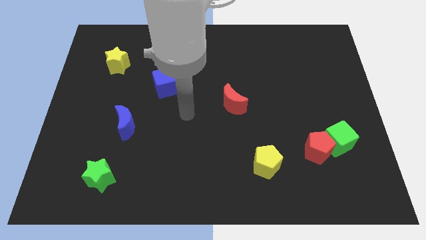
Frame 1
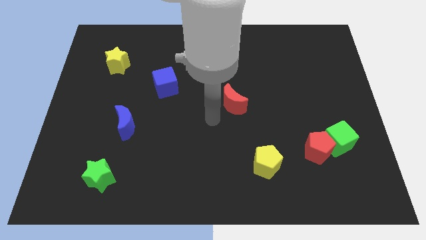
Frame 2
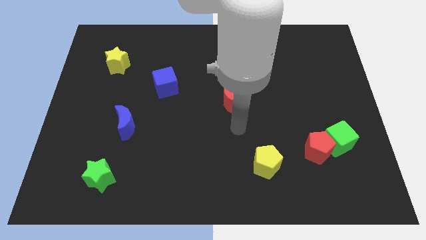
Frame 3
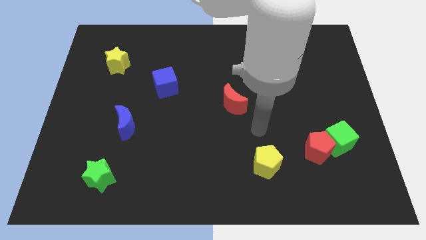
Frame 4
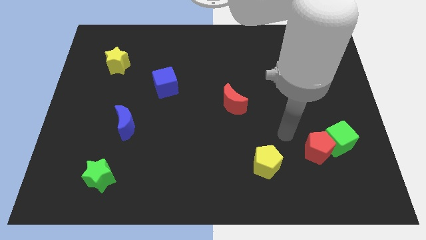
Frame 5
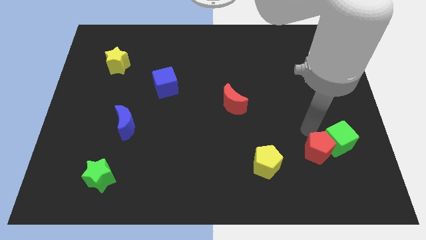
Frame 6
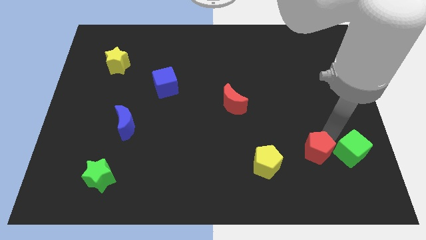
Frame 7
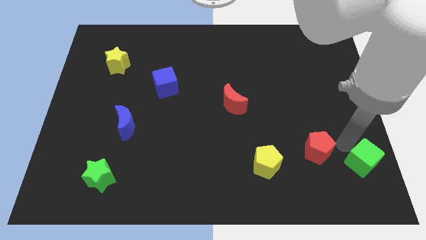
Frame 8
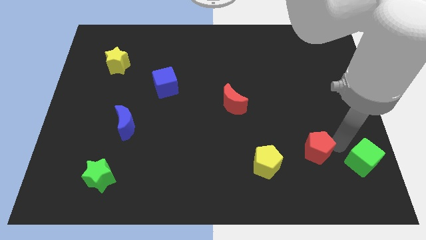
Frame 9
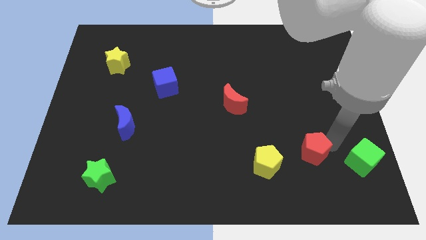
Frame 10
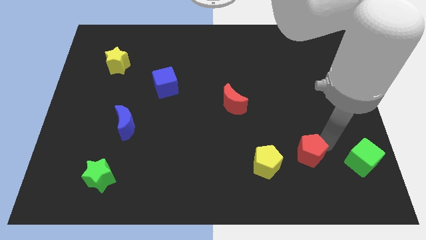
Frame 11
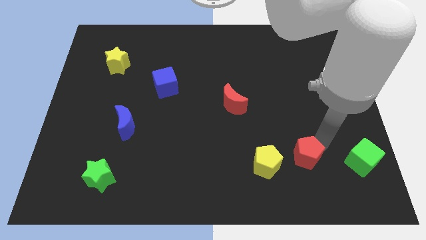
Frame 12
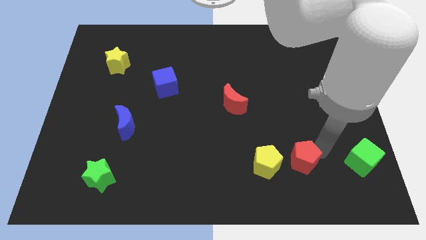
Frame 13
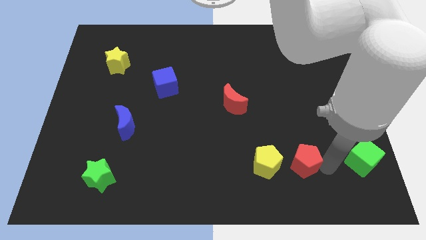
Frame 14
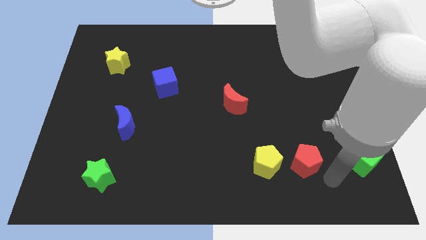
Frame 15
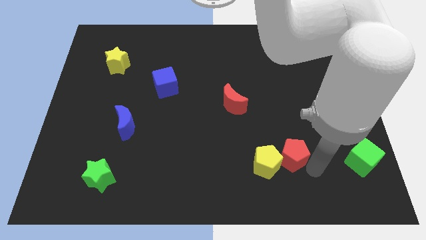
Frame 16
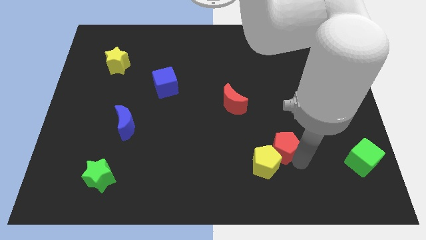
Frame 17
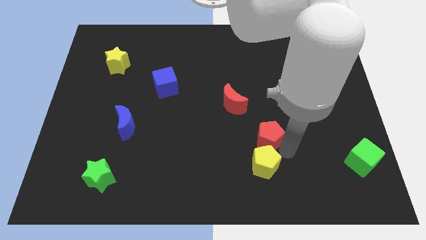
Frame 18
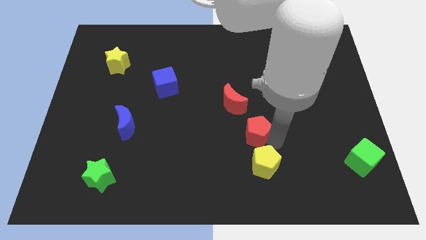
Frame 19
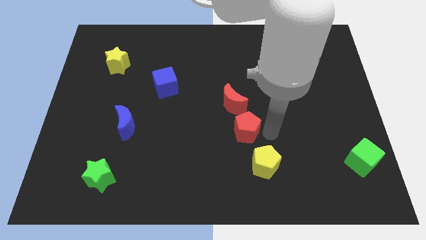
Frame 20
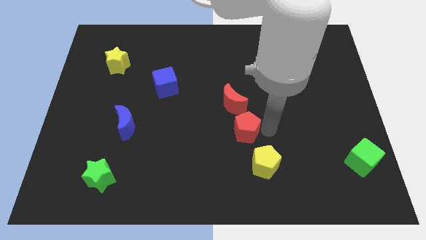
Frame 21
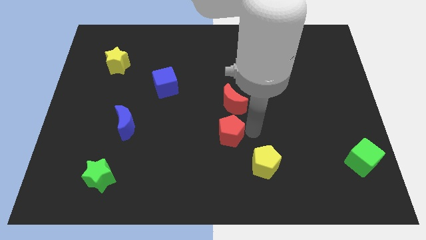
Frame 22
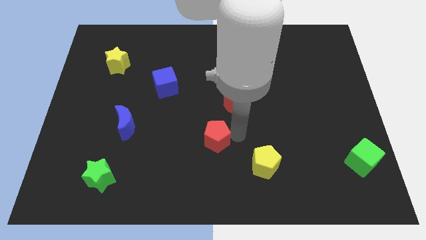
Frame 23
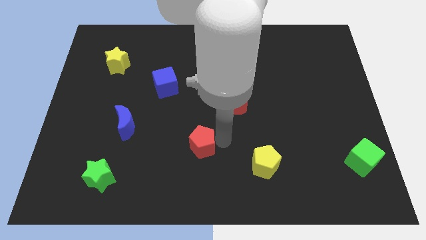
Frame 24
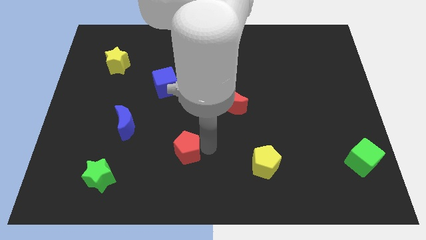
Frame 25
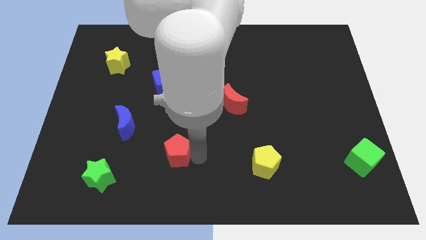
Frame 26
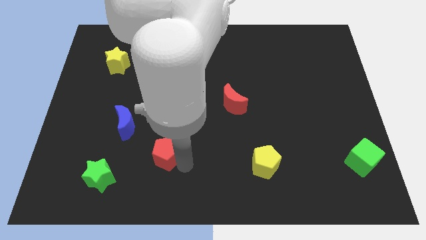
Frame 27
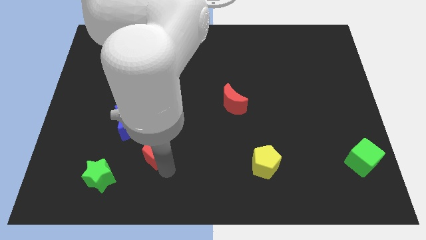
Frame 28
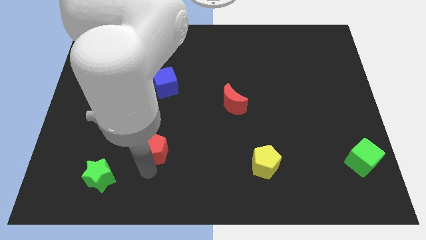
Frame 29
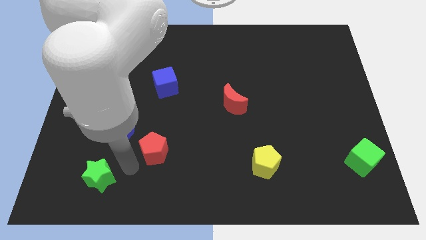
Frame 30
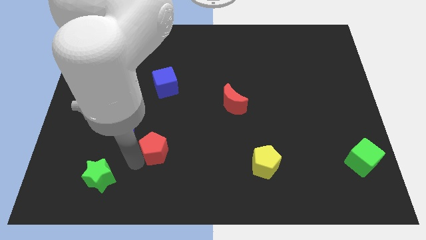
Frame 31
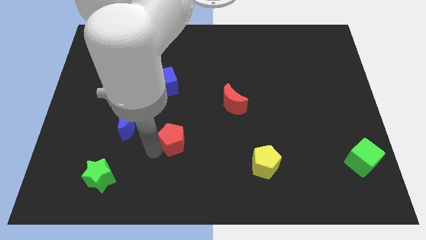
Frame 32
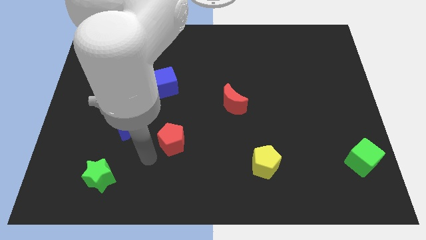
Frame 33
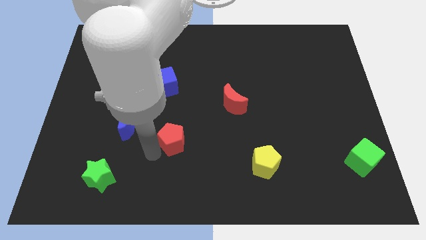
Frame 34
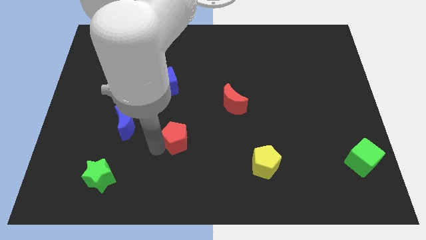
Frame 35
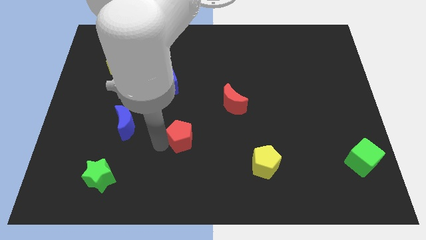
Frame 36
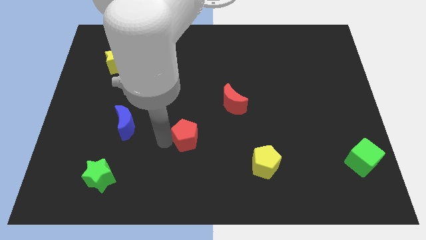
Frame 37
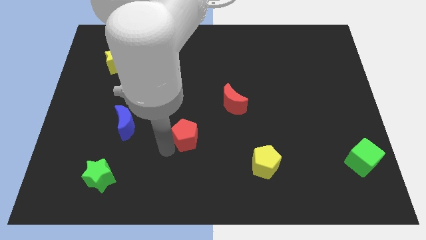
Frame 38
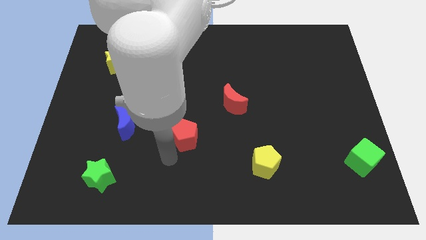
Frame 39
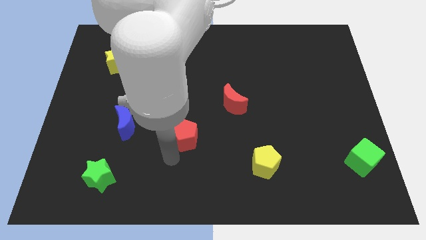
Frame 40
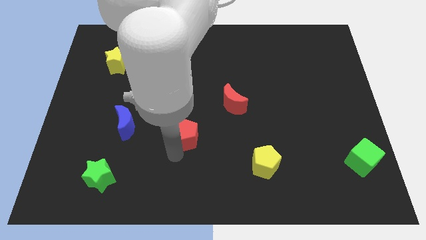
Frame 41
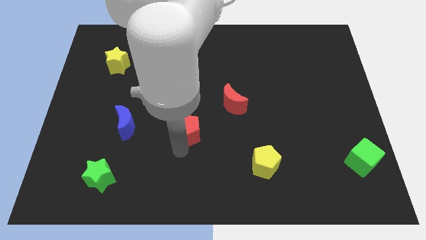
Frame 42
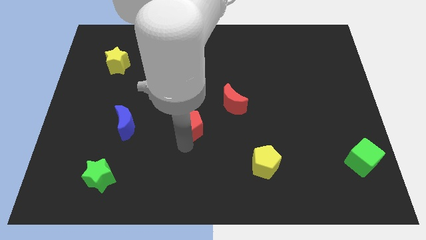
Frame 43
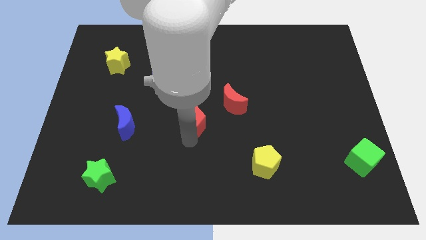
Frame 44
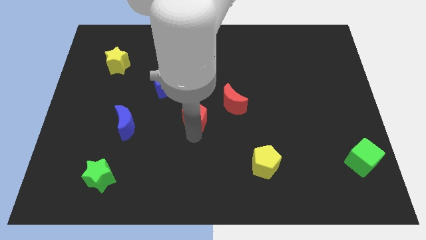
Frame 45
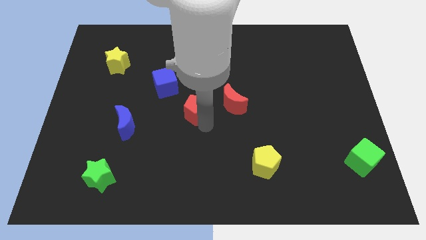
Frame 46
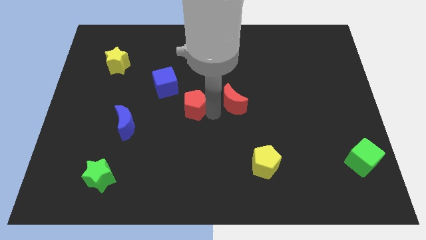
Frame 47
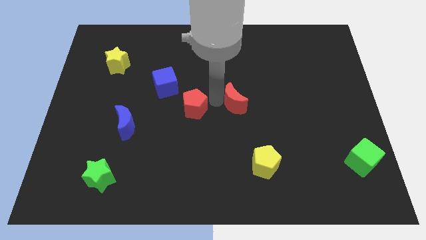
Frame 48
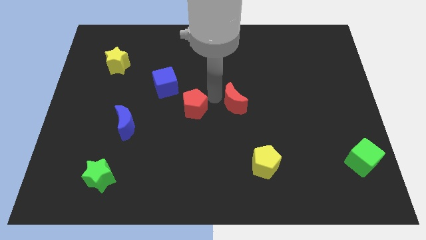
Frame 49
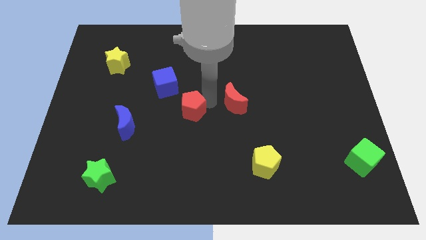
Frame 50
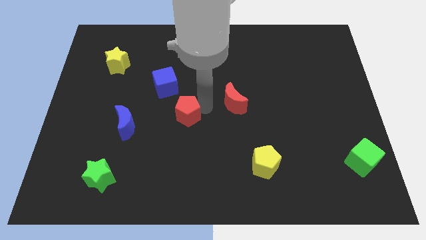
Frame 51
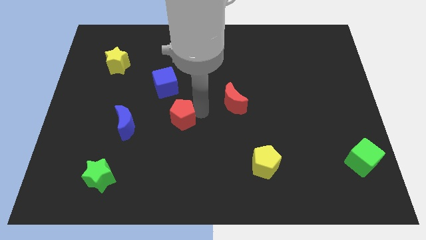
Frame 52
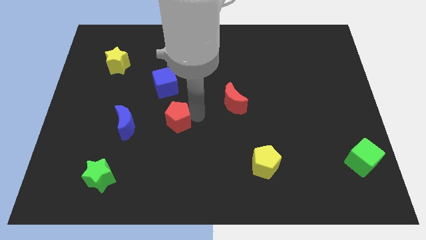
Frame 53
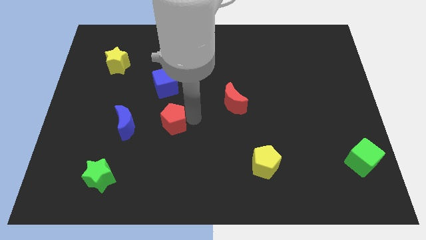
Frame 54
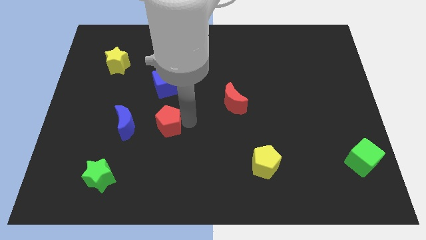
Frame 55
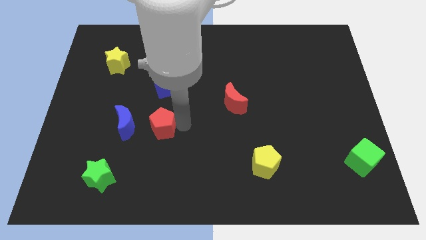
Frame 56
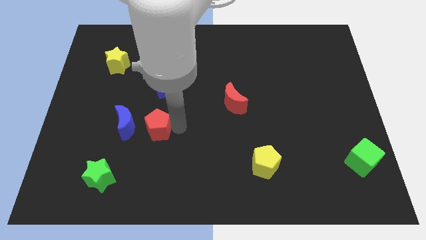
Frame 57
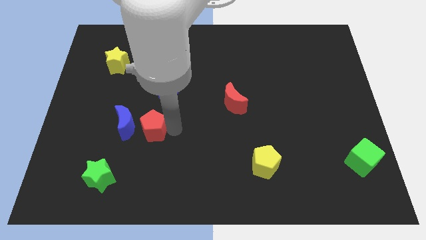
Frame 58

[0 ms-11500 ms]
push the red pentagon close to the blue moon

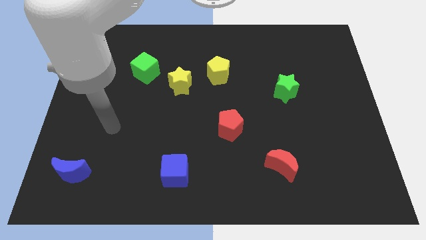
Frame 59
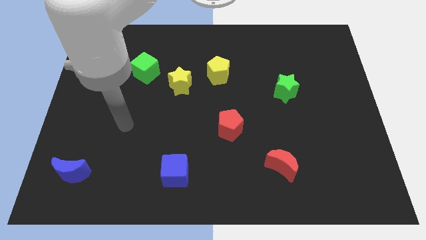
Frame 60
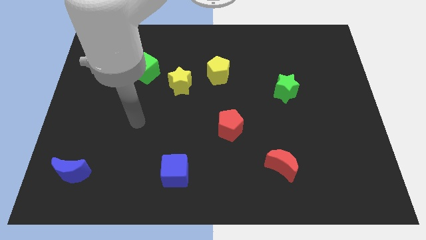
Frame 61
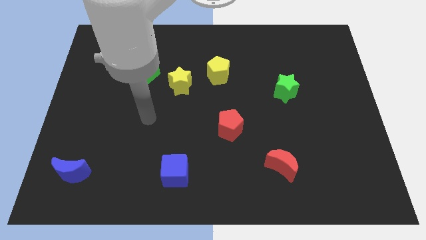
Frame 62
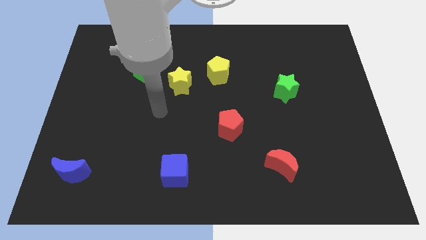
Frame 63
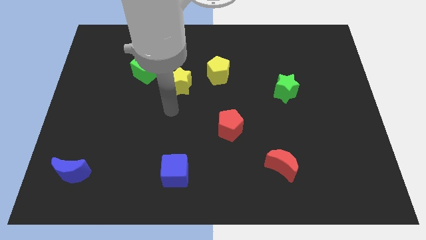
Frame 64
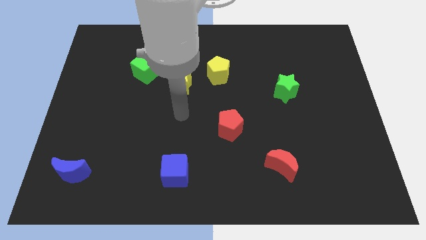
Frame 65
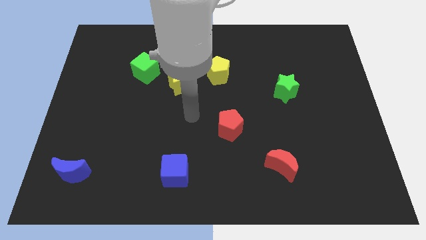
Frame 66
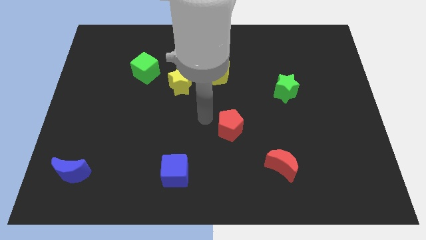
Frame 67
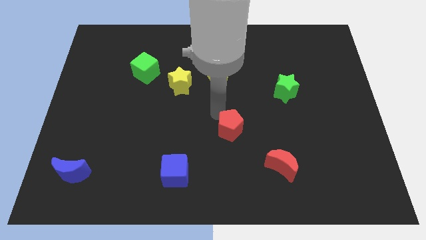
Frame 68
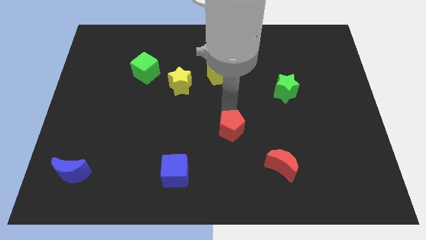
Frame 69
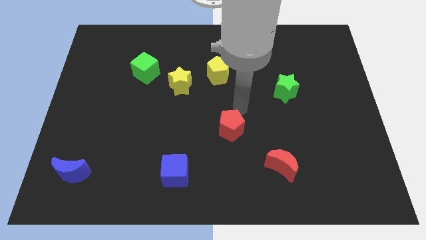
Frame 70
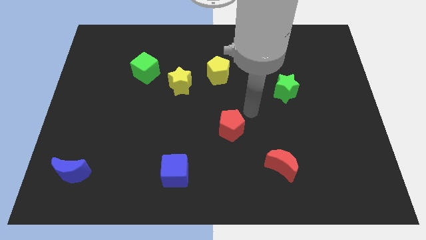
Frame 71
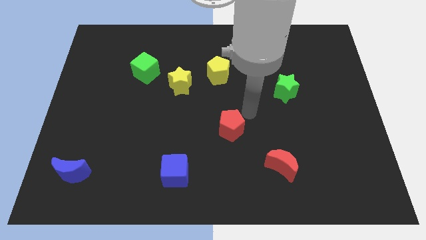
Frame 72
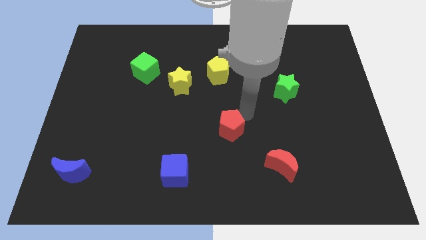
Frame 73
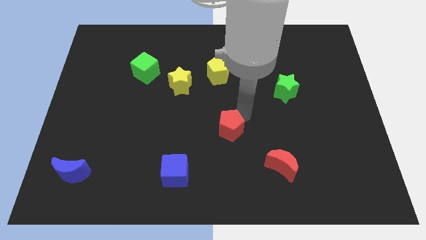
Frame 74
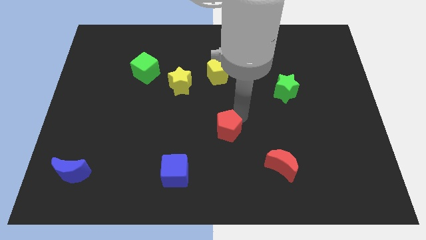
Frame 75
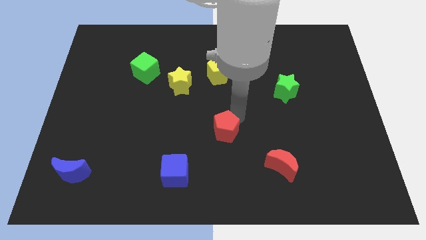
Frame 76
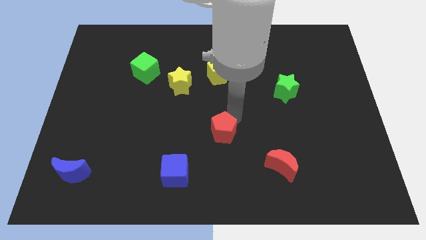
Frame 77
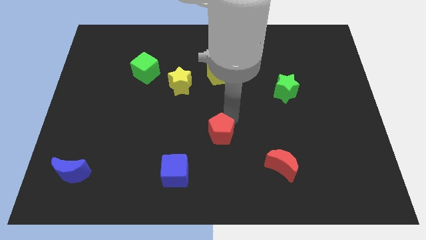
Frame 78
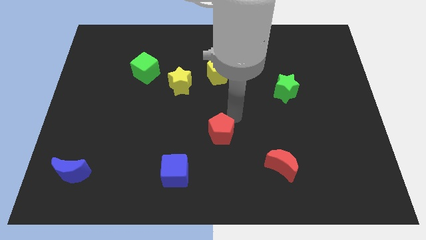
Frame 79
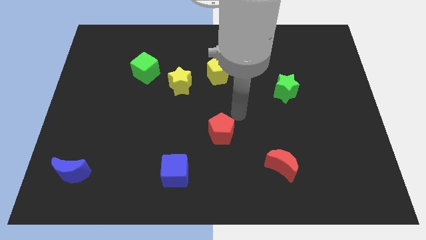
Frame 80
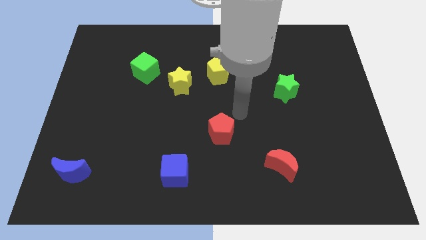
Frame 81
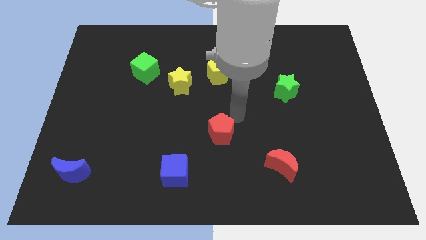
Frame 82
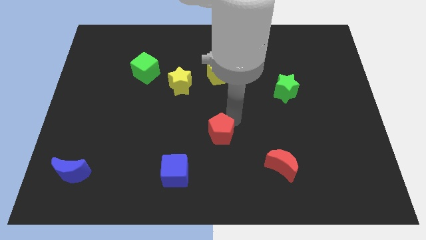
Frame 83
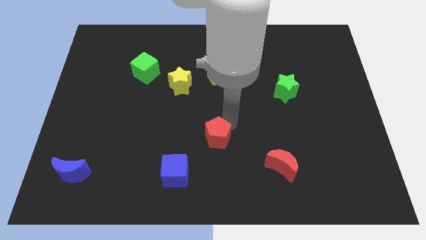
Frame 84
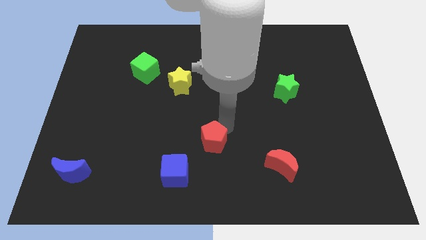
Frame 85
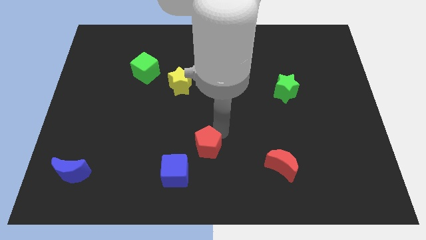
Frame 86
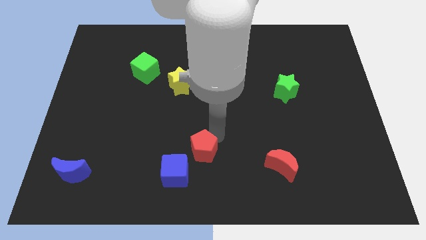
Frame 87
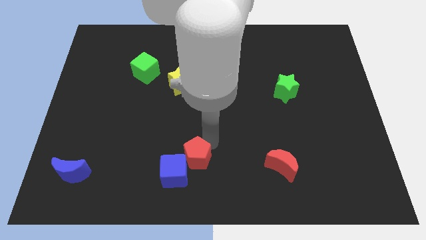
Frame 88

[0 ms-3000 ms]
move the red pentagon next to the blue cube
